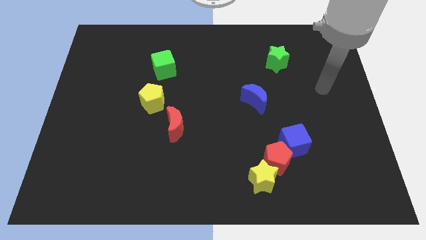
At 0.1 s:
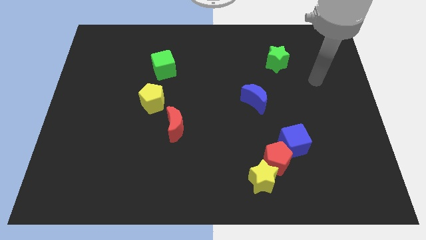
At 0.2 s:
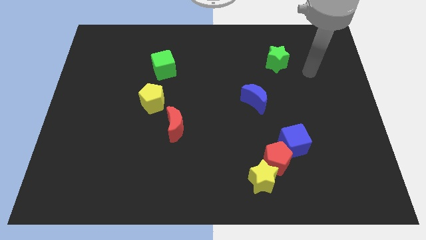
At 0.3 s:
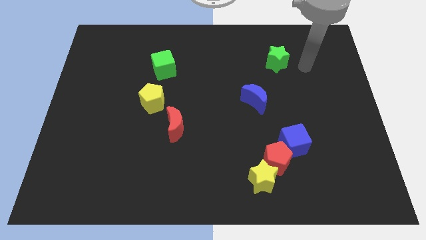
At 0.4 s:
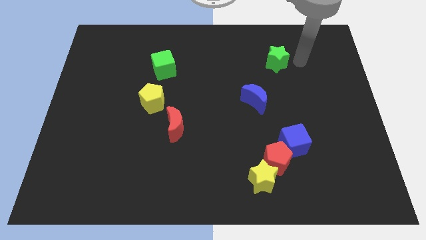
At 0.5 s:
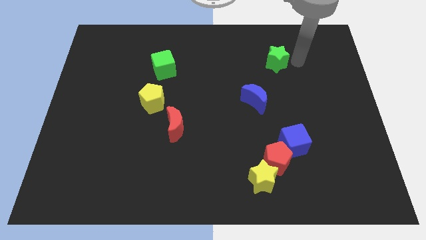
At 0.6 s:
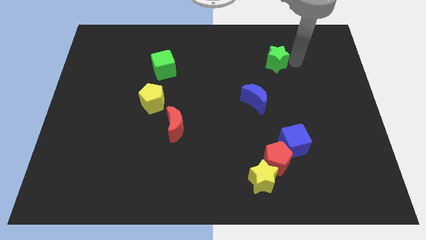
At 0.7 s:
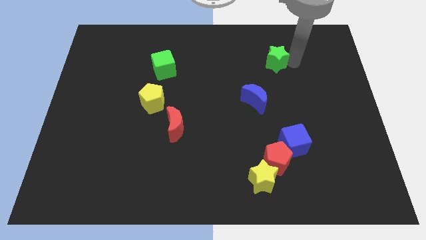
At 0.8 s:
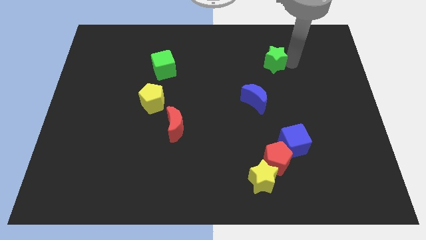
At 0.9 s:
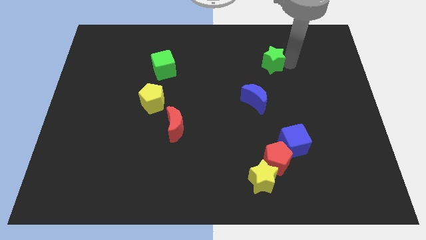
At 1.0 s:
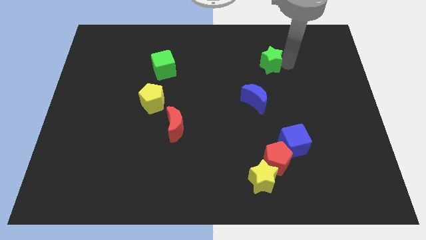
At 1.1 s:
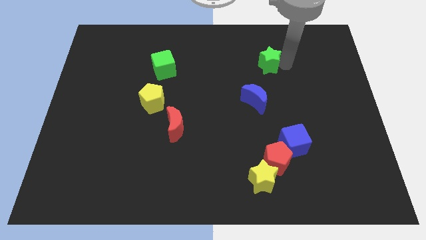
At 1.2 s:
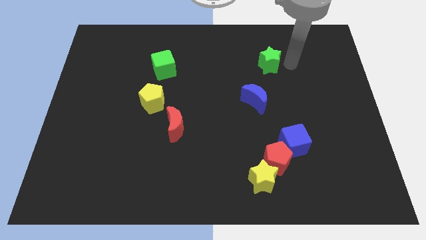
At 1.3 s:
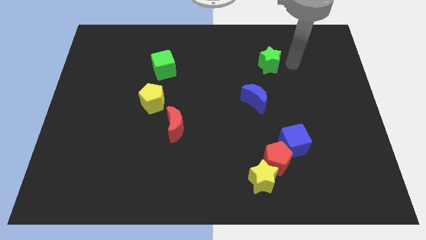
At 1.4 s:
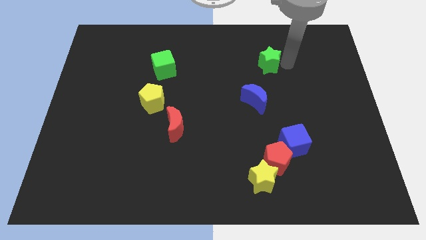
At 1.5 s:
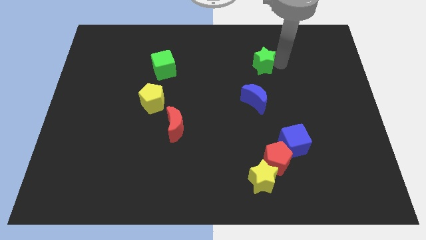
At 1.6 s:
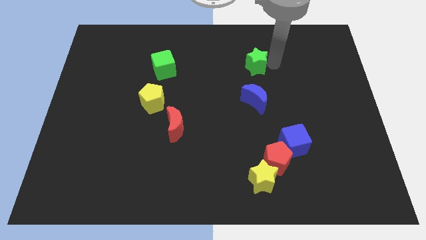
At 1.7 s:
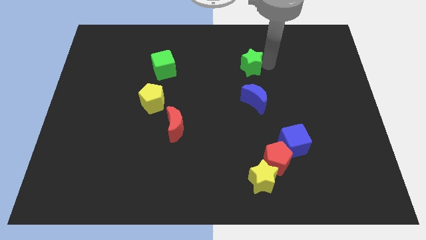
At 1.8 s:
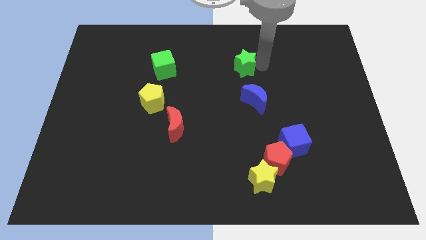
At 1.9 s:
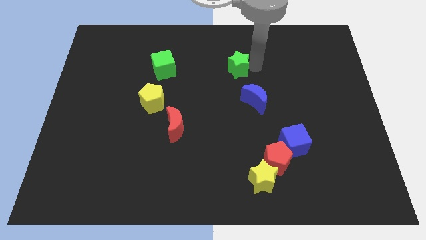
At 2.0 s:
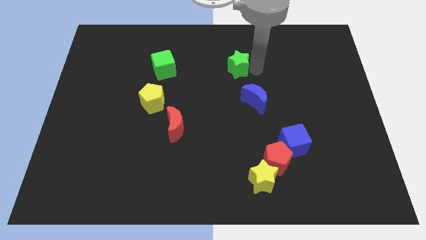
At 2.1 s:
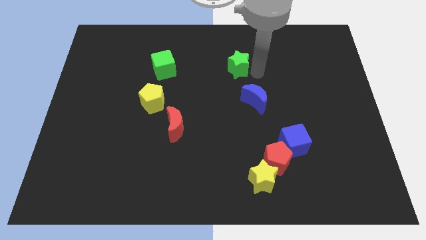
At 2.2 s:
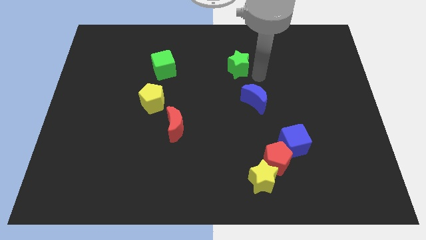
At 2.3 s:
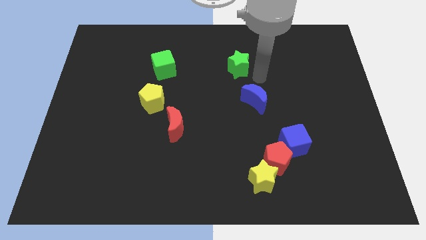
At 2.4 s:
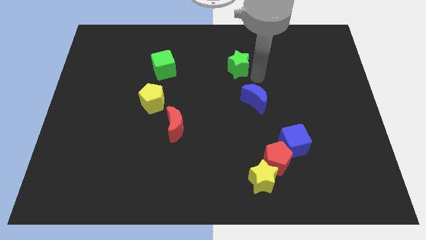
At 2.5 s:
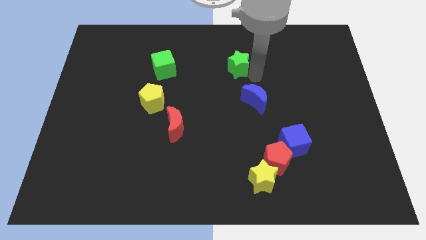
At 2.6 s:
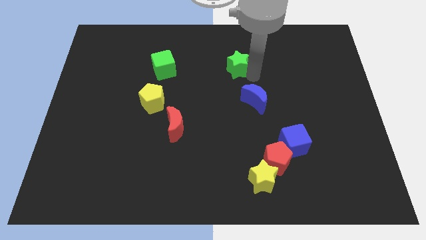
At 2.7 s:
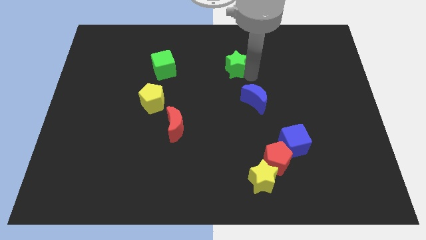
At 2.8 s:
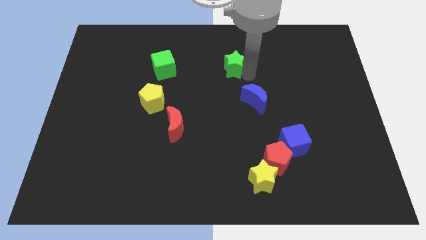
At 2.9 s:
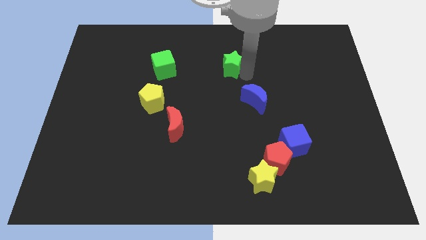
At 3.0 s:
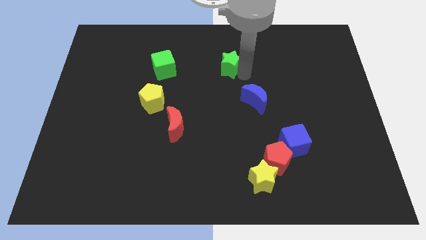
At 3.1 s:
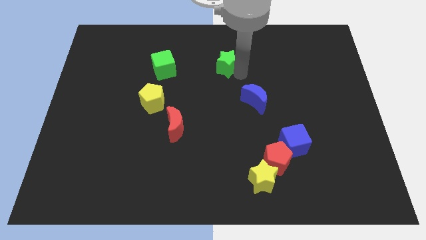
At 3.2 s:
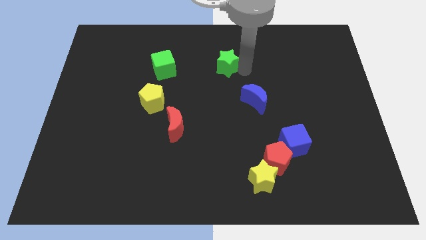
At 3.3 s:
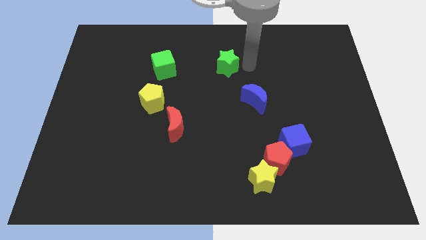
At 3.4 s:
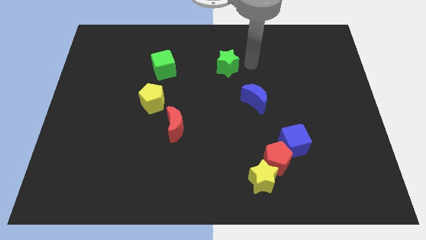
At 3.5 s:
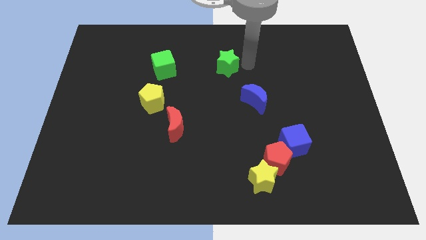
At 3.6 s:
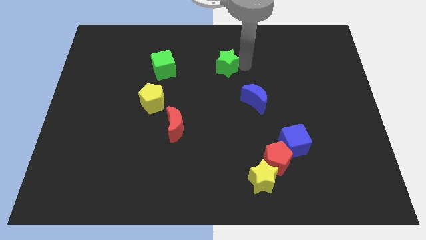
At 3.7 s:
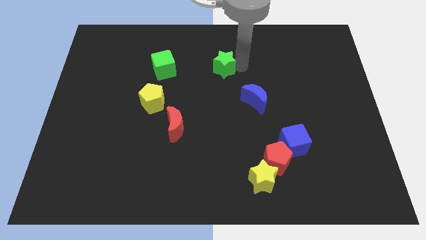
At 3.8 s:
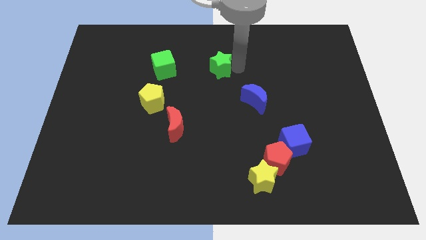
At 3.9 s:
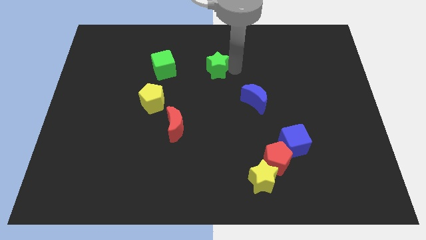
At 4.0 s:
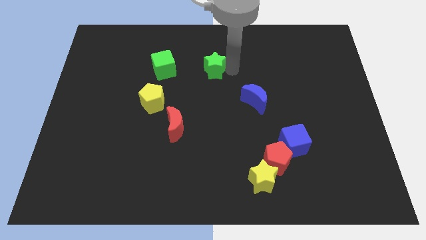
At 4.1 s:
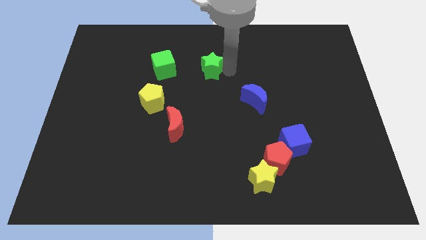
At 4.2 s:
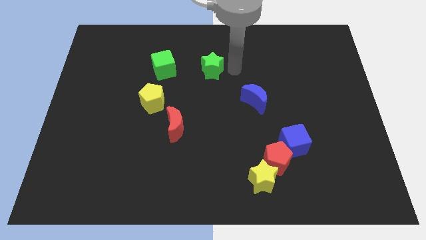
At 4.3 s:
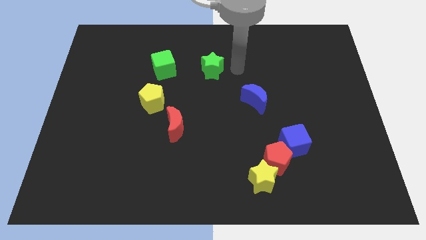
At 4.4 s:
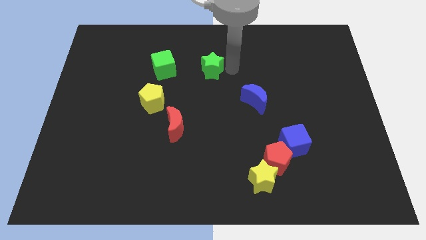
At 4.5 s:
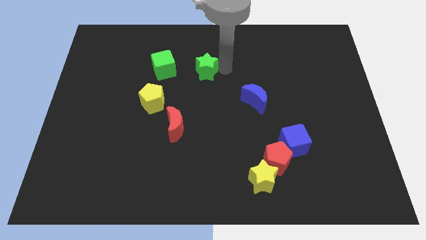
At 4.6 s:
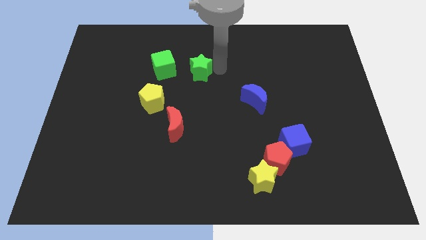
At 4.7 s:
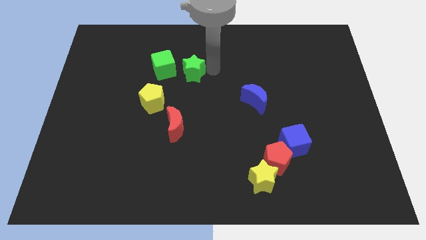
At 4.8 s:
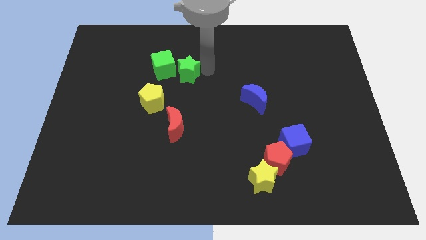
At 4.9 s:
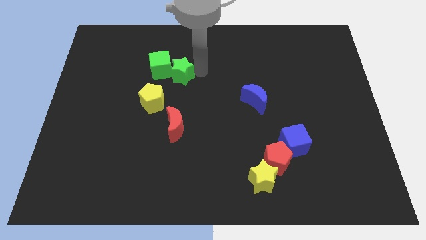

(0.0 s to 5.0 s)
move the green star to the green cube

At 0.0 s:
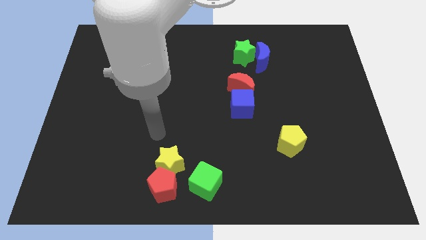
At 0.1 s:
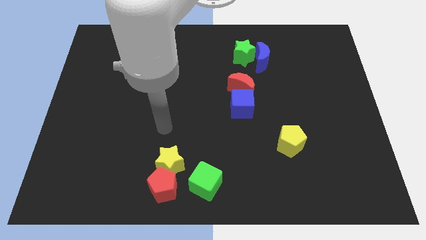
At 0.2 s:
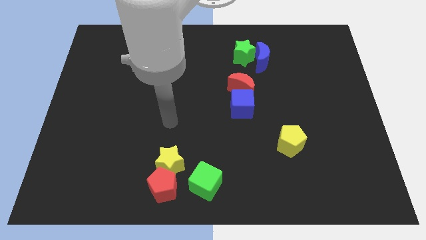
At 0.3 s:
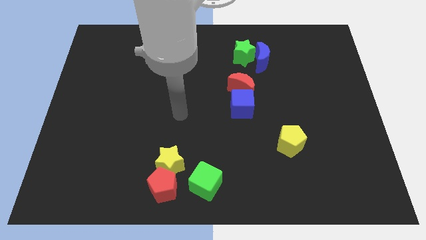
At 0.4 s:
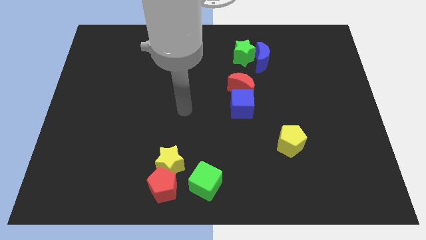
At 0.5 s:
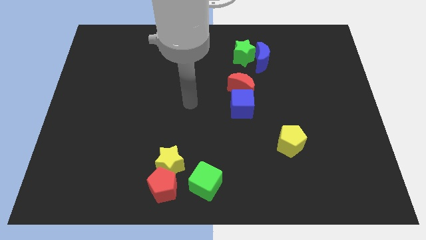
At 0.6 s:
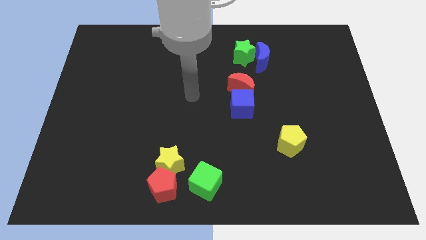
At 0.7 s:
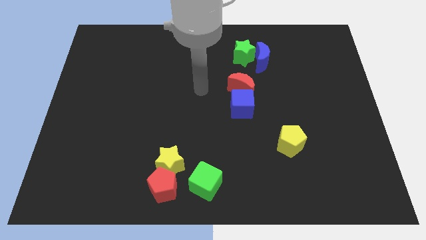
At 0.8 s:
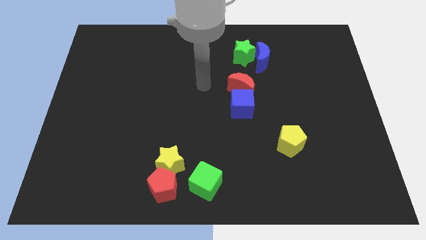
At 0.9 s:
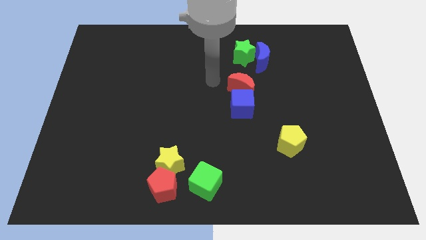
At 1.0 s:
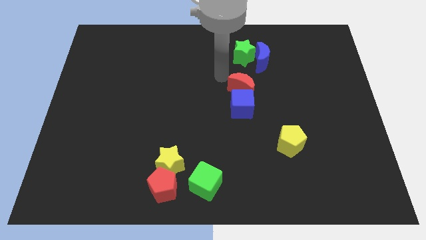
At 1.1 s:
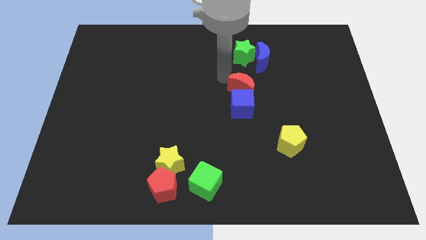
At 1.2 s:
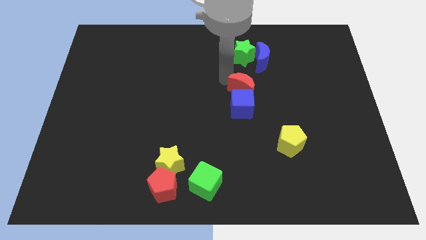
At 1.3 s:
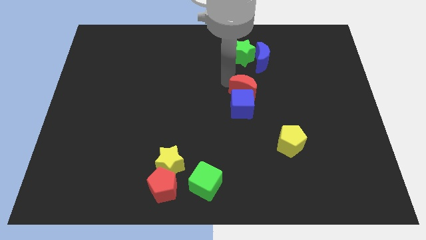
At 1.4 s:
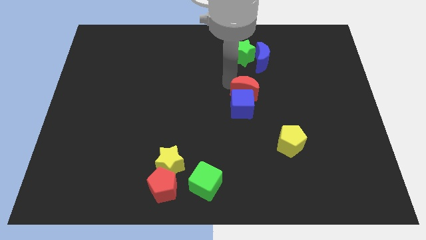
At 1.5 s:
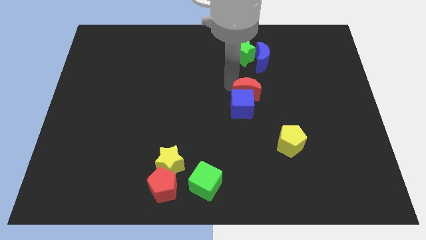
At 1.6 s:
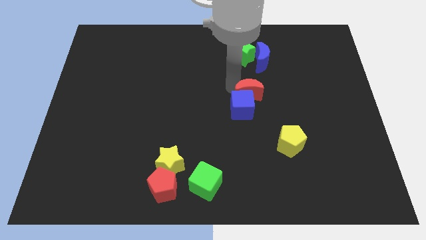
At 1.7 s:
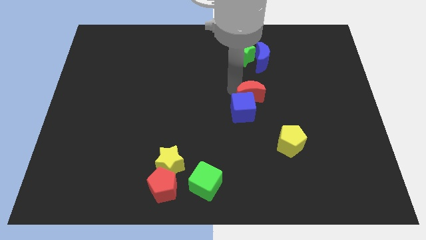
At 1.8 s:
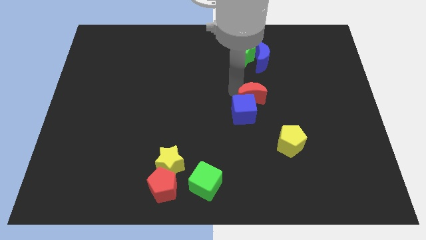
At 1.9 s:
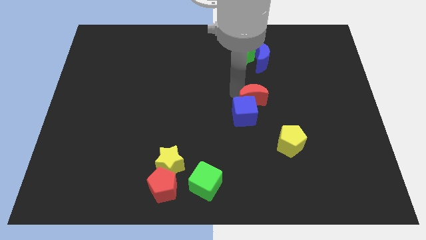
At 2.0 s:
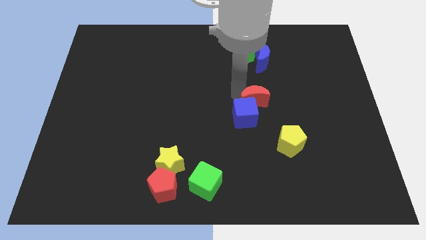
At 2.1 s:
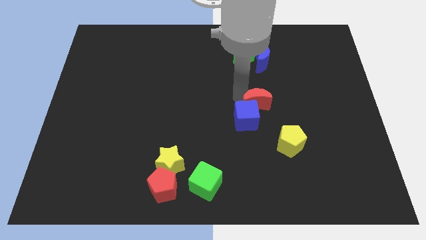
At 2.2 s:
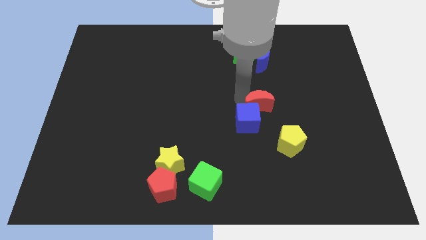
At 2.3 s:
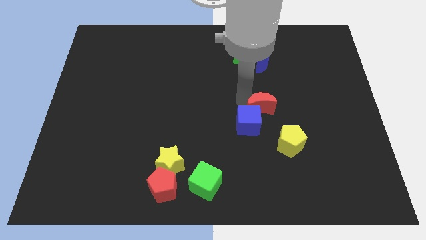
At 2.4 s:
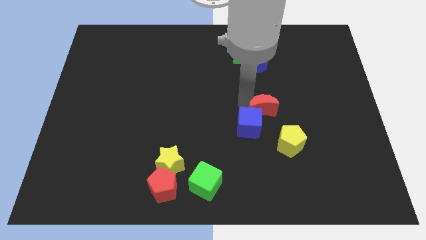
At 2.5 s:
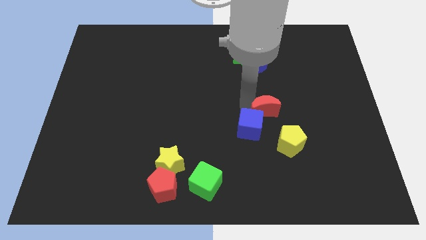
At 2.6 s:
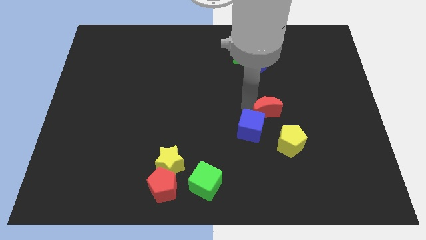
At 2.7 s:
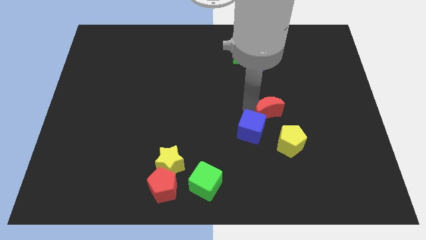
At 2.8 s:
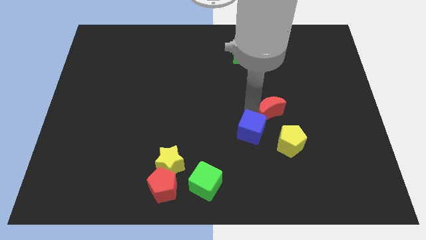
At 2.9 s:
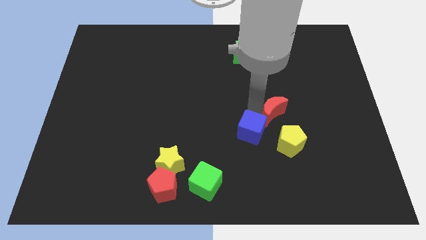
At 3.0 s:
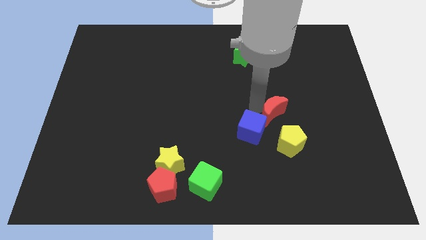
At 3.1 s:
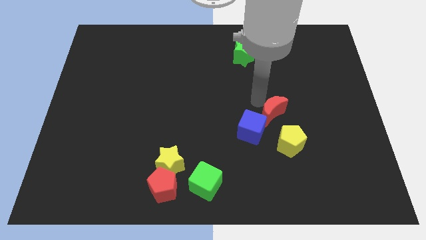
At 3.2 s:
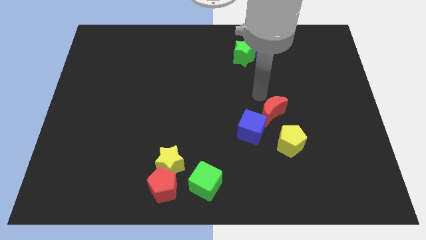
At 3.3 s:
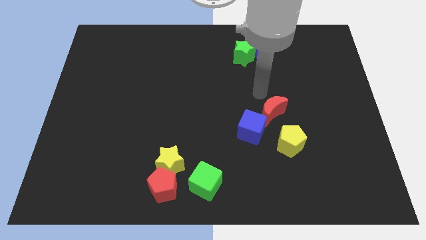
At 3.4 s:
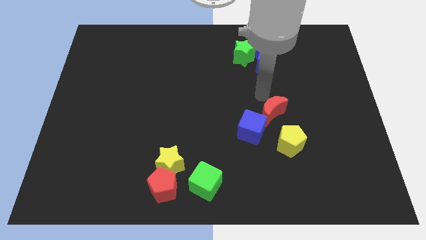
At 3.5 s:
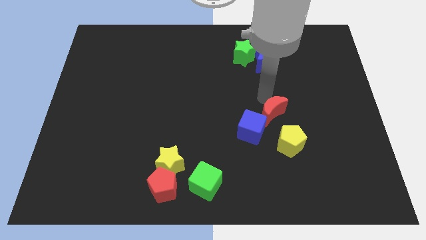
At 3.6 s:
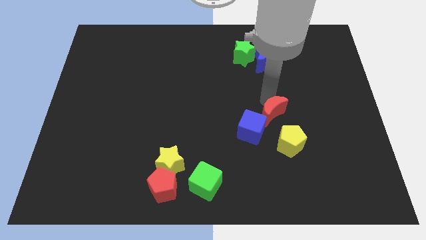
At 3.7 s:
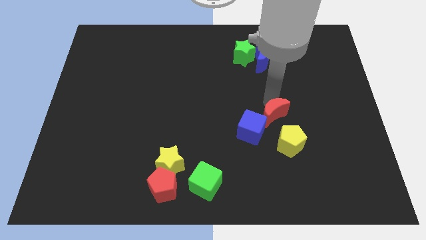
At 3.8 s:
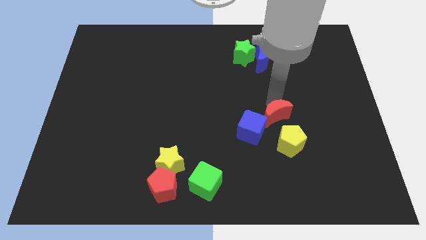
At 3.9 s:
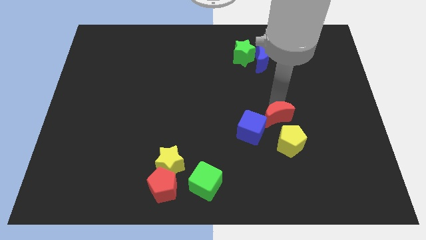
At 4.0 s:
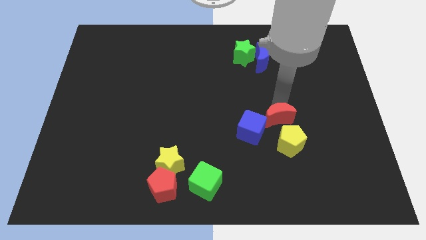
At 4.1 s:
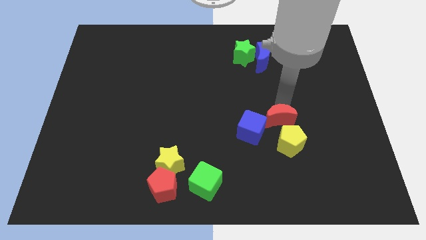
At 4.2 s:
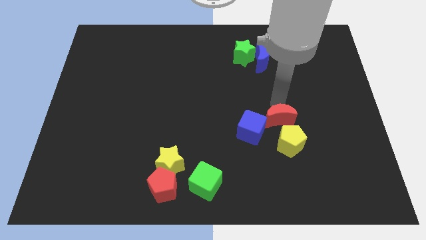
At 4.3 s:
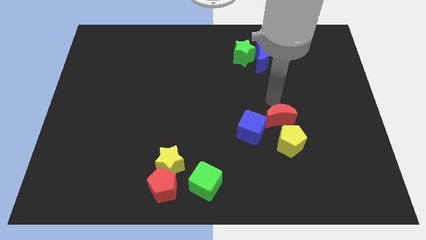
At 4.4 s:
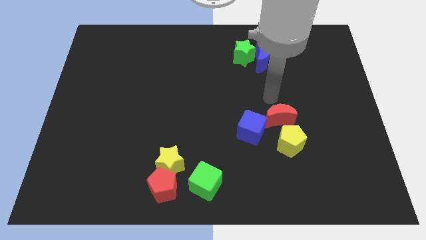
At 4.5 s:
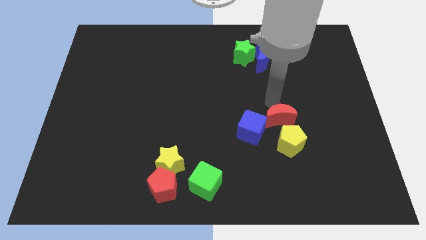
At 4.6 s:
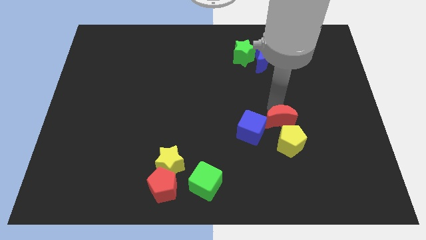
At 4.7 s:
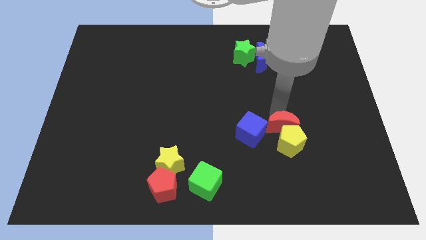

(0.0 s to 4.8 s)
put the red moon close to the yellow pentagon
